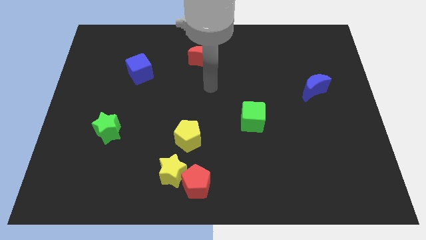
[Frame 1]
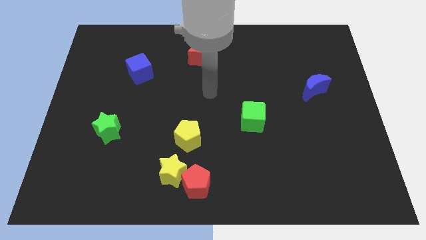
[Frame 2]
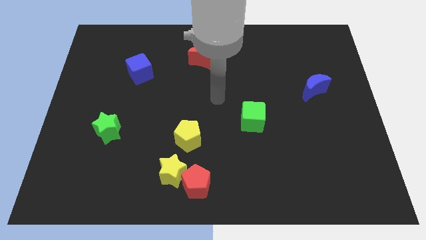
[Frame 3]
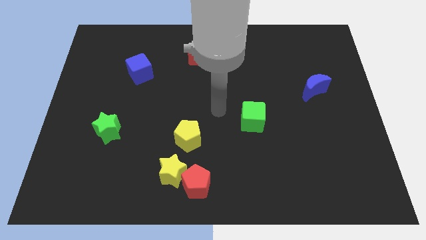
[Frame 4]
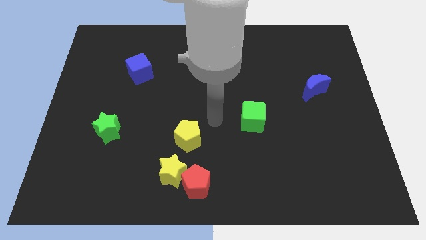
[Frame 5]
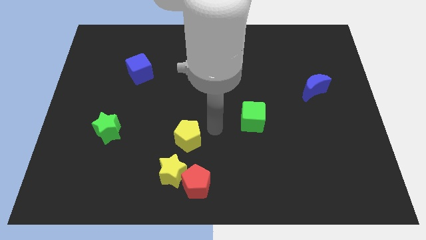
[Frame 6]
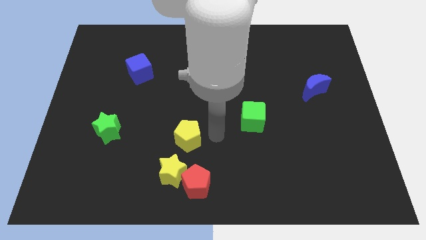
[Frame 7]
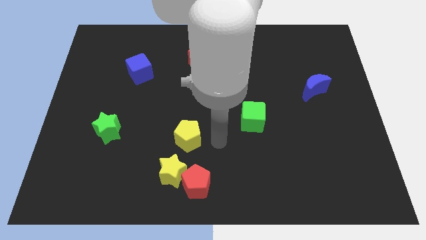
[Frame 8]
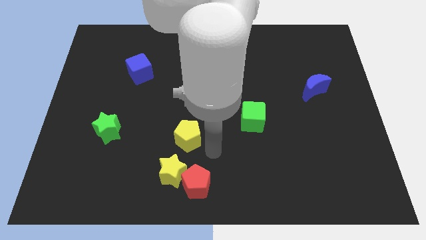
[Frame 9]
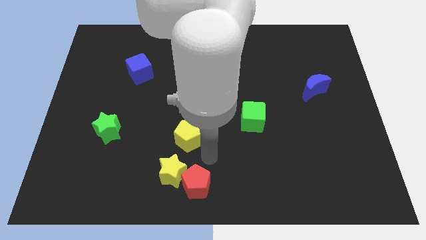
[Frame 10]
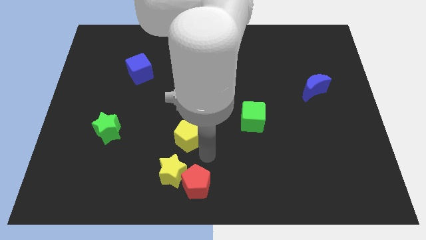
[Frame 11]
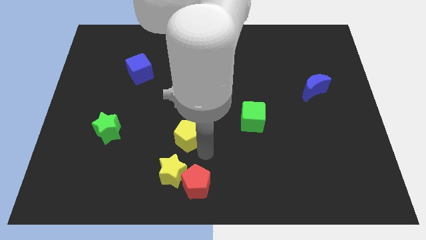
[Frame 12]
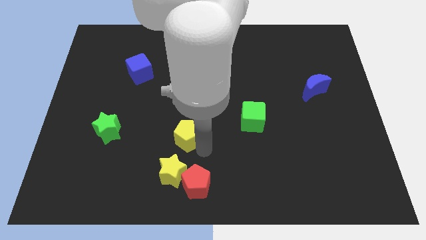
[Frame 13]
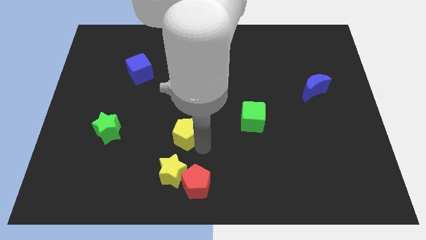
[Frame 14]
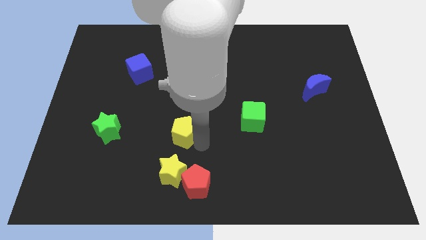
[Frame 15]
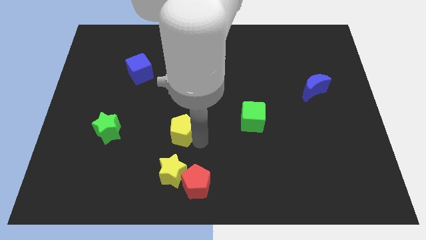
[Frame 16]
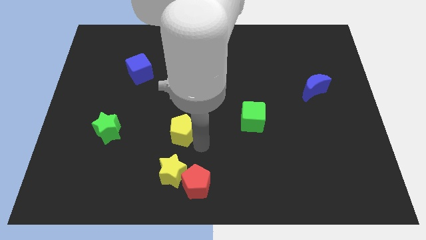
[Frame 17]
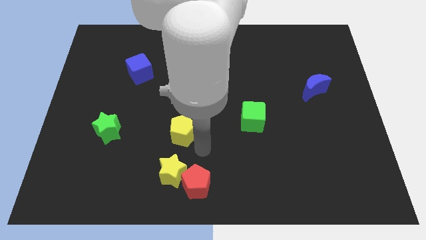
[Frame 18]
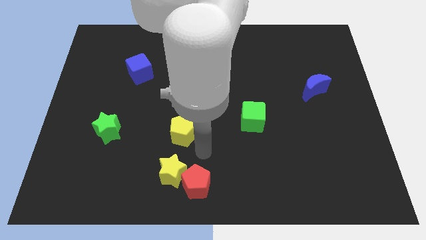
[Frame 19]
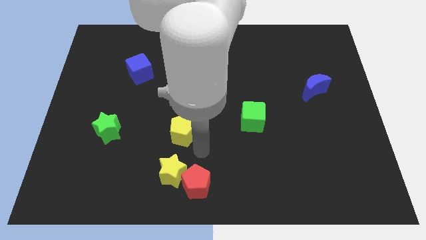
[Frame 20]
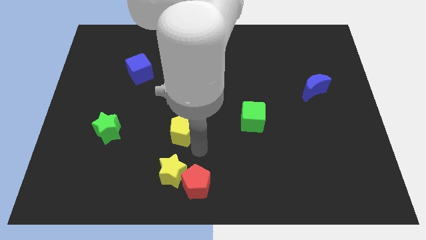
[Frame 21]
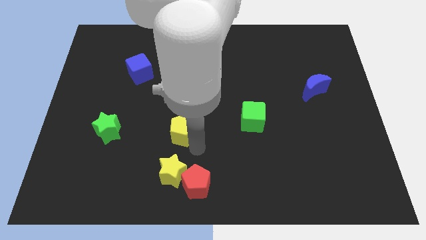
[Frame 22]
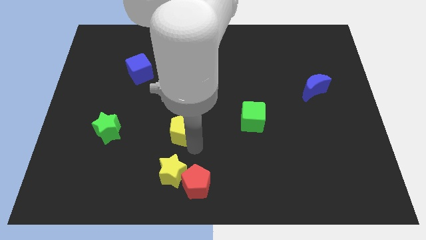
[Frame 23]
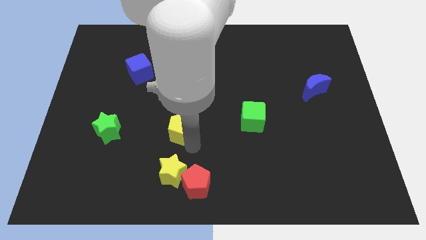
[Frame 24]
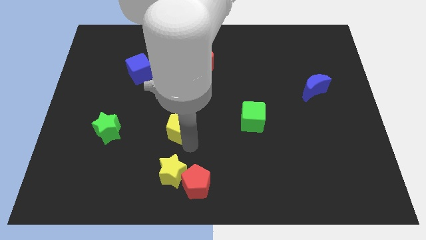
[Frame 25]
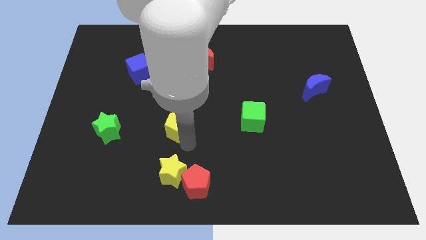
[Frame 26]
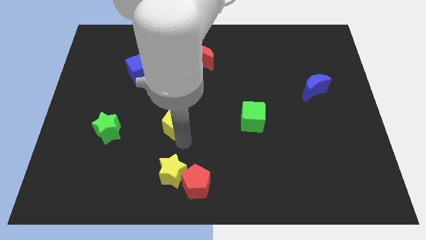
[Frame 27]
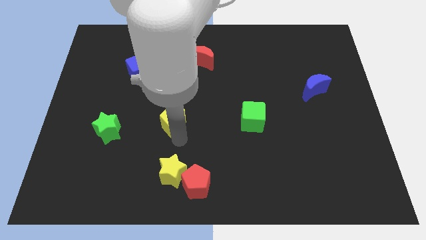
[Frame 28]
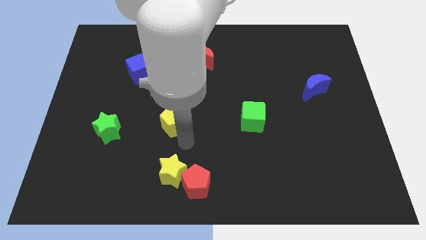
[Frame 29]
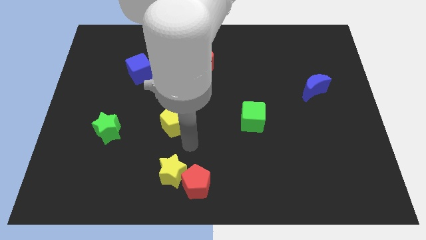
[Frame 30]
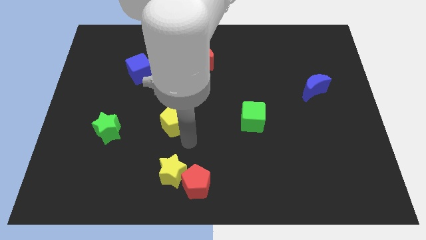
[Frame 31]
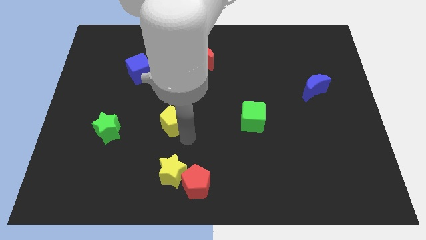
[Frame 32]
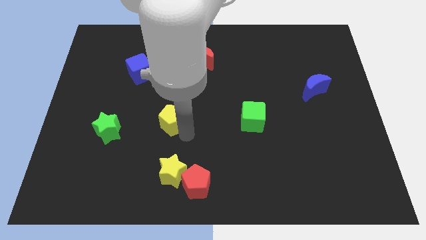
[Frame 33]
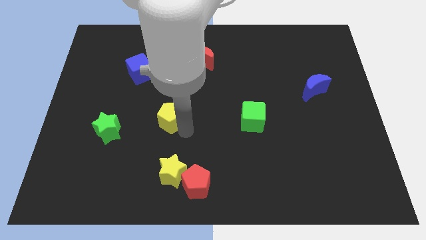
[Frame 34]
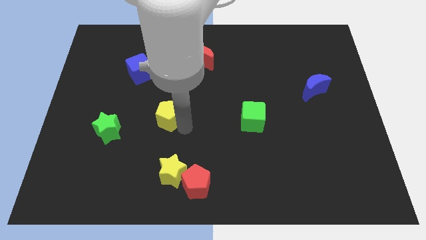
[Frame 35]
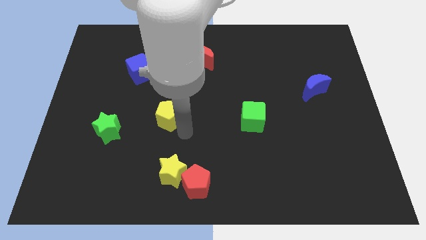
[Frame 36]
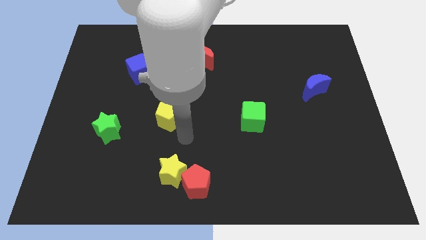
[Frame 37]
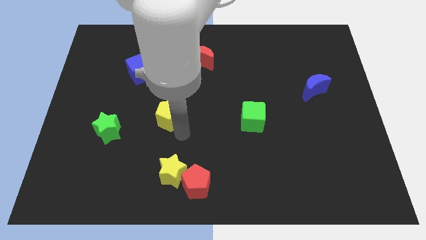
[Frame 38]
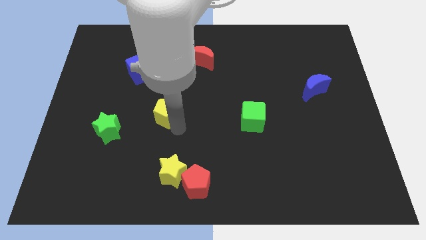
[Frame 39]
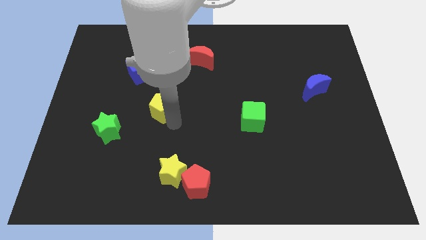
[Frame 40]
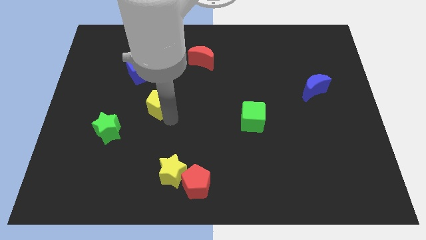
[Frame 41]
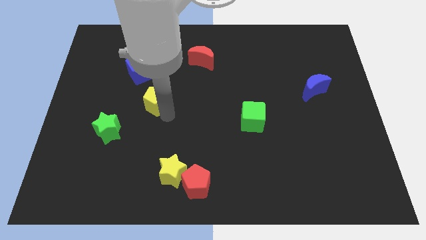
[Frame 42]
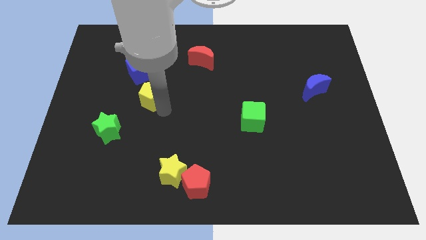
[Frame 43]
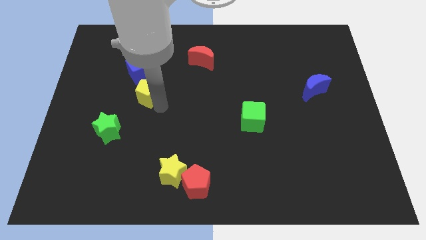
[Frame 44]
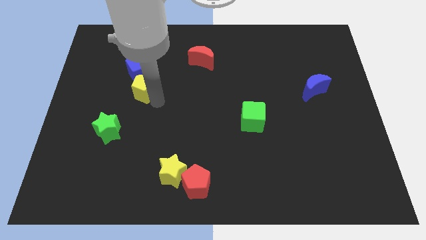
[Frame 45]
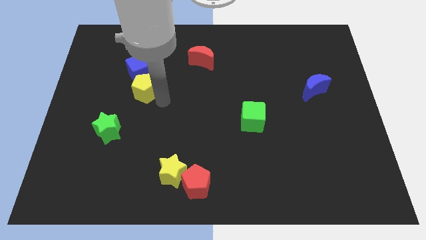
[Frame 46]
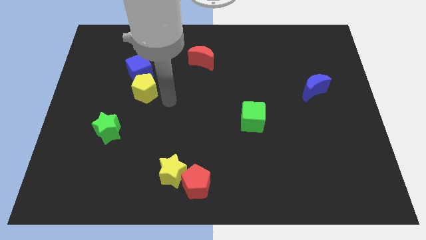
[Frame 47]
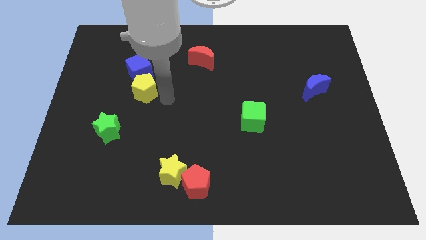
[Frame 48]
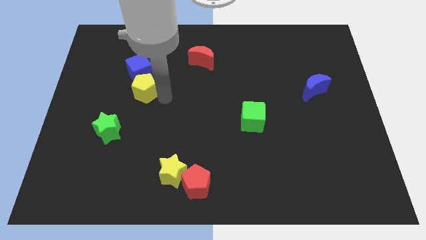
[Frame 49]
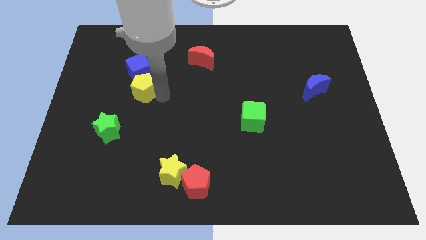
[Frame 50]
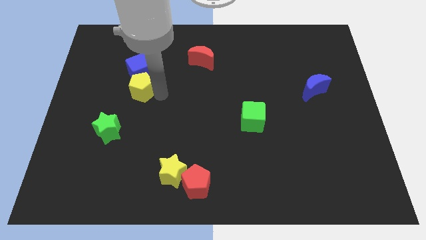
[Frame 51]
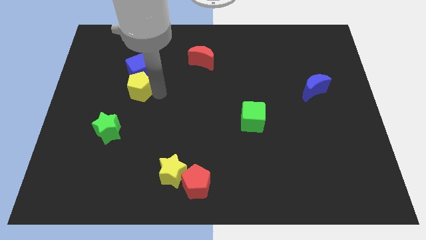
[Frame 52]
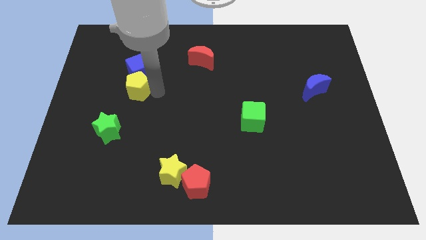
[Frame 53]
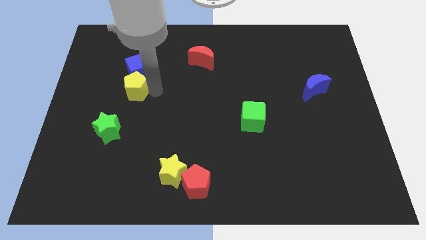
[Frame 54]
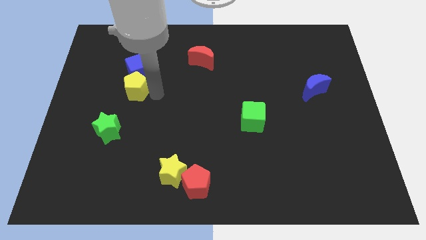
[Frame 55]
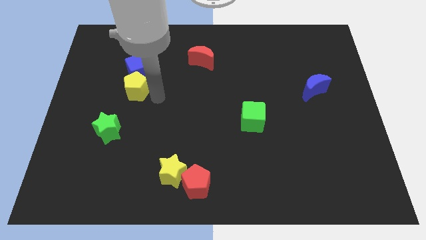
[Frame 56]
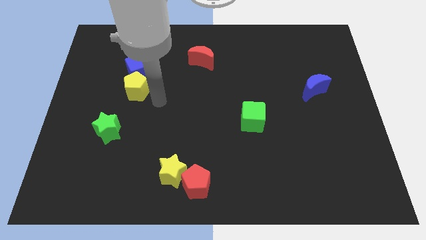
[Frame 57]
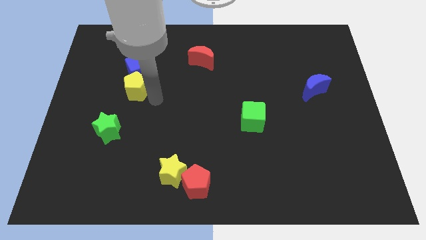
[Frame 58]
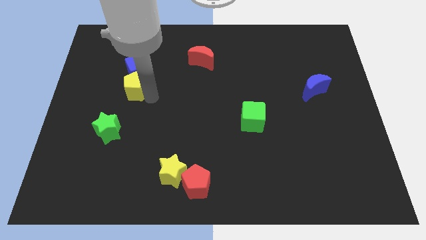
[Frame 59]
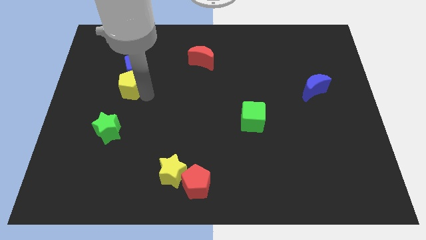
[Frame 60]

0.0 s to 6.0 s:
push the yellow pentagon upwards and left

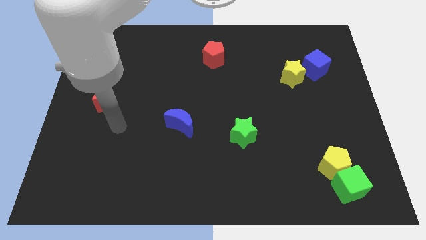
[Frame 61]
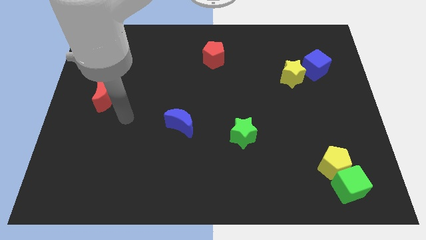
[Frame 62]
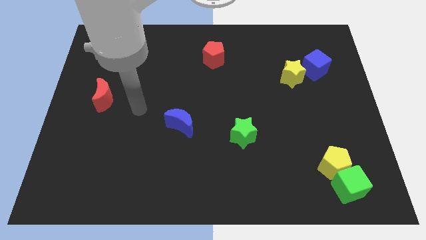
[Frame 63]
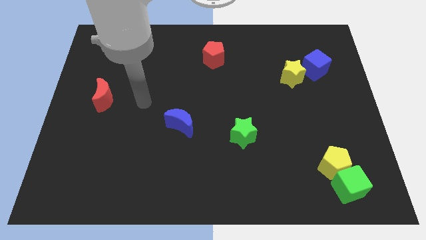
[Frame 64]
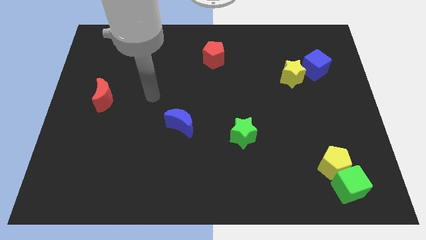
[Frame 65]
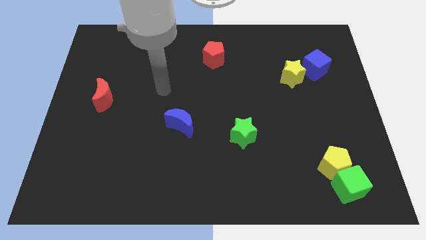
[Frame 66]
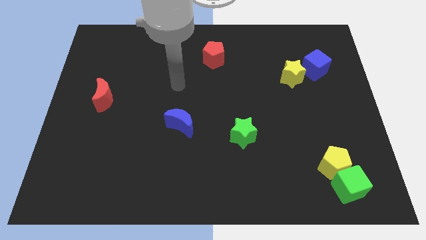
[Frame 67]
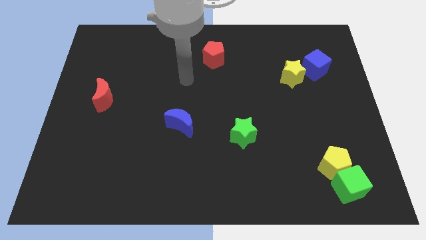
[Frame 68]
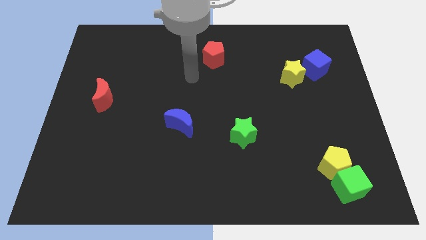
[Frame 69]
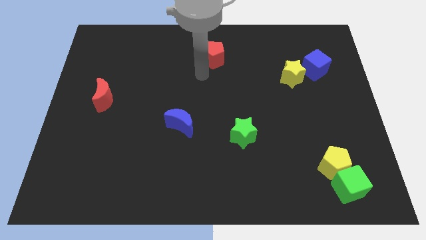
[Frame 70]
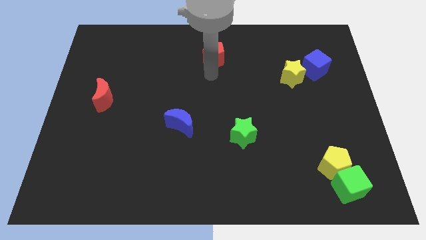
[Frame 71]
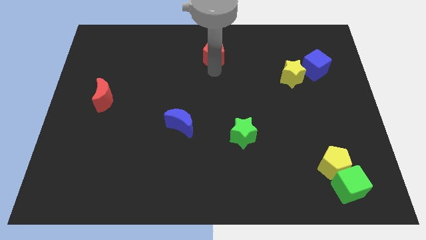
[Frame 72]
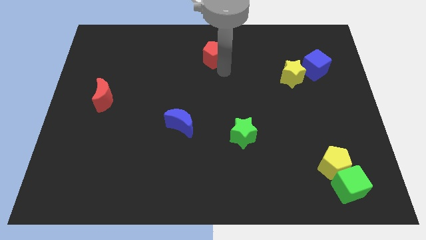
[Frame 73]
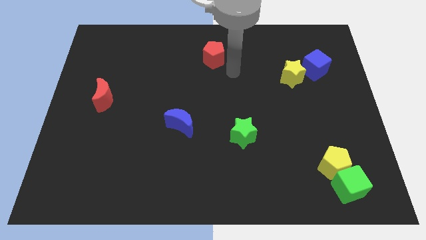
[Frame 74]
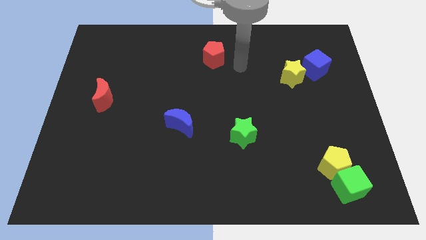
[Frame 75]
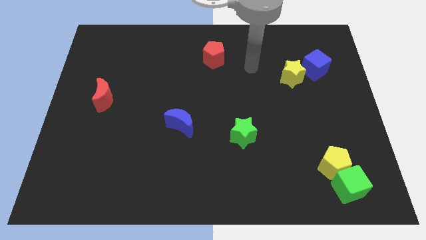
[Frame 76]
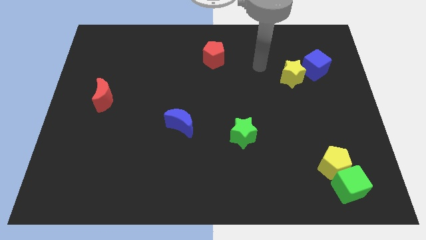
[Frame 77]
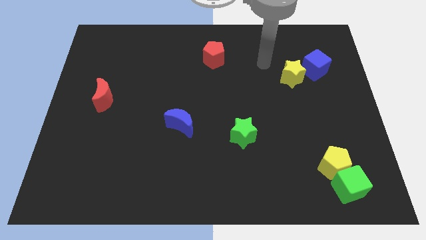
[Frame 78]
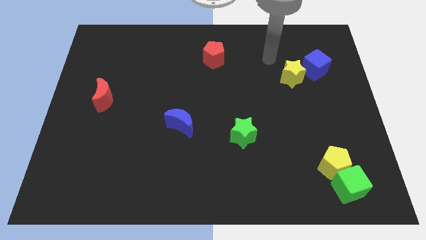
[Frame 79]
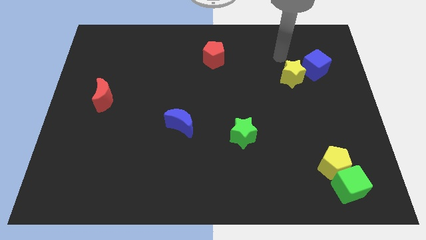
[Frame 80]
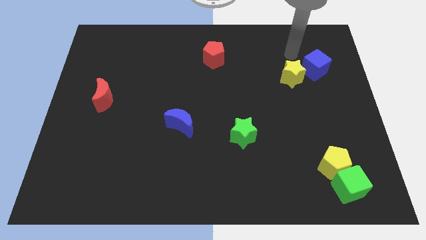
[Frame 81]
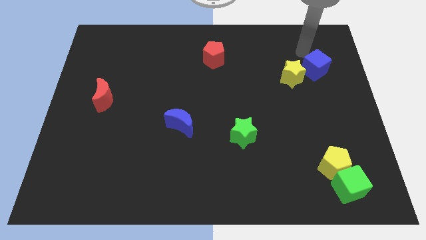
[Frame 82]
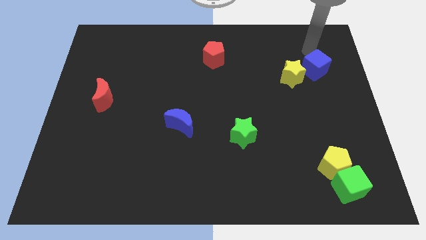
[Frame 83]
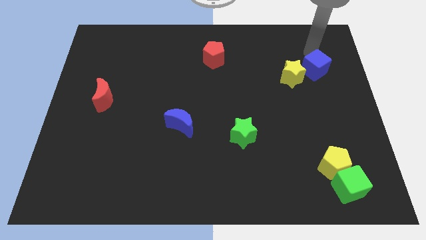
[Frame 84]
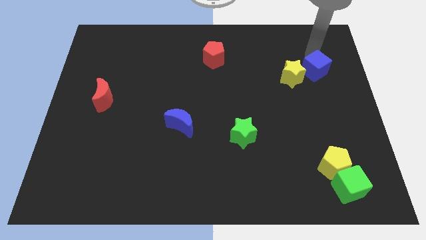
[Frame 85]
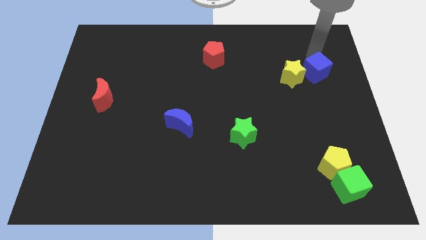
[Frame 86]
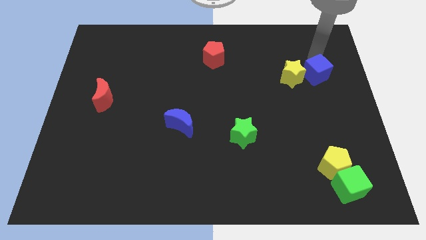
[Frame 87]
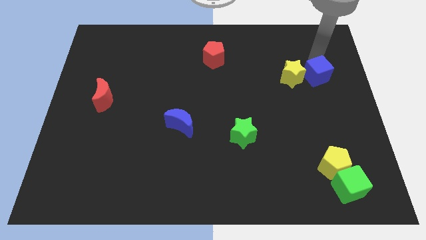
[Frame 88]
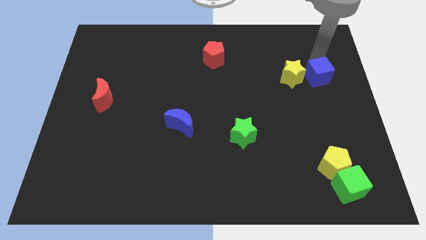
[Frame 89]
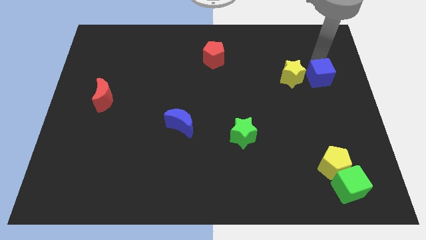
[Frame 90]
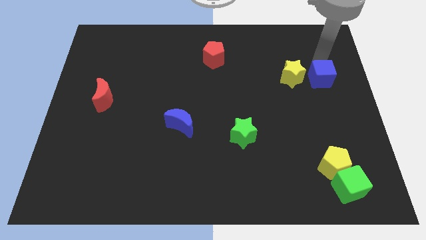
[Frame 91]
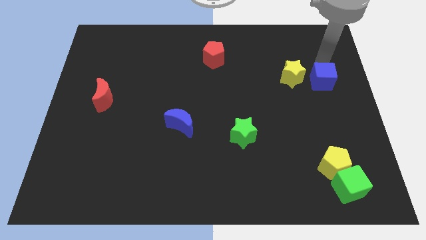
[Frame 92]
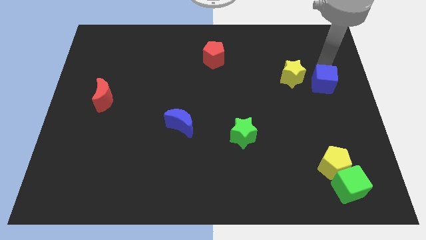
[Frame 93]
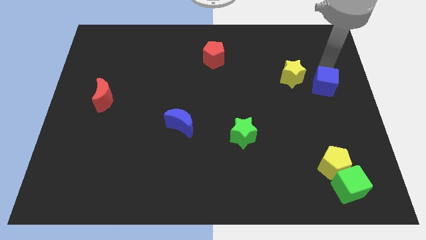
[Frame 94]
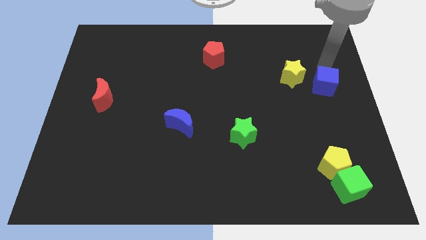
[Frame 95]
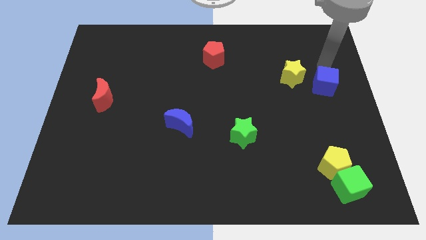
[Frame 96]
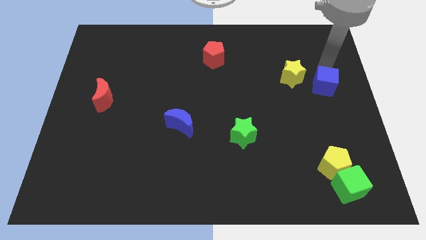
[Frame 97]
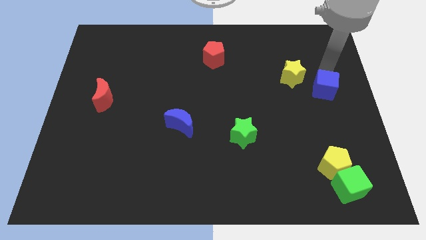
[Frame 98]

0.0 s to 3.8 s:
slide the blue cube slightly down
